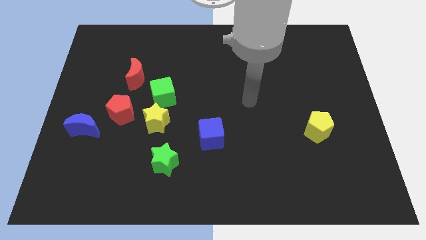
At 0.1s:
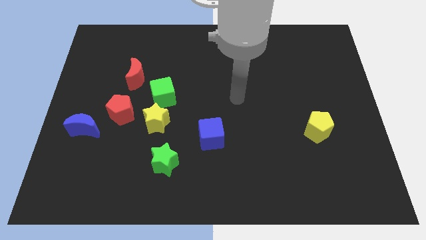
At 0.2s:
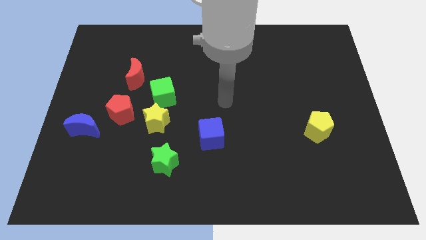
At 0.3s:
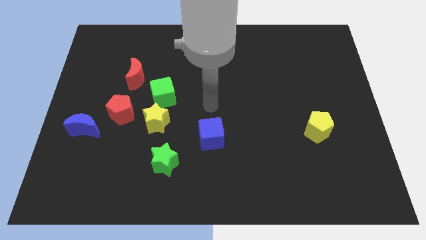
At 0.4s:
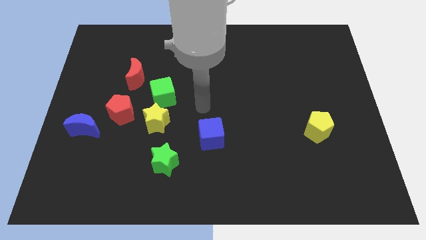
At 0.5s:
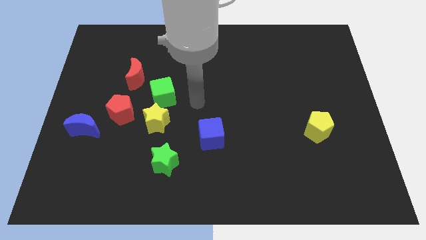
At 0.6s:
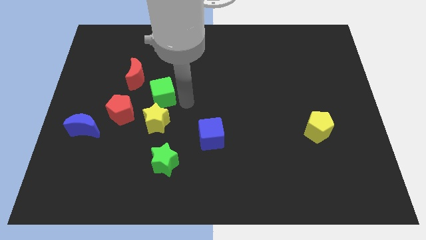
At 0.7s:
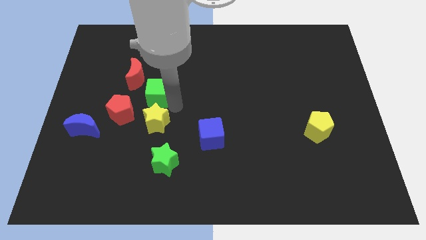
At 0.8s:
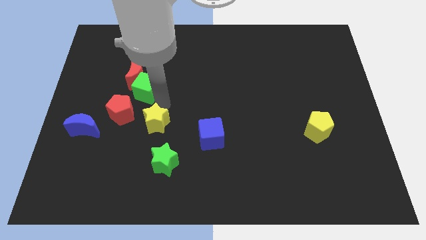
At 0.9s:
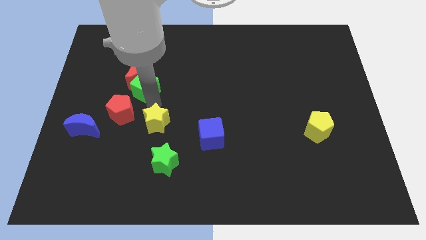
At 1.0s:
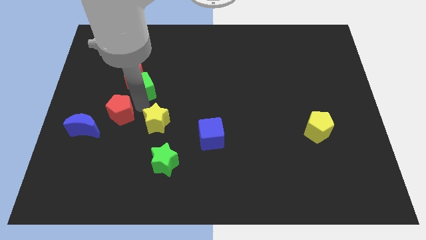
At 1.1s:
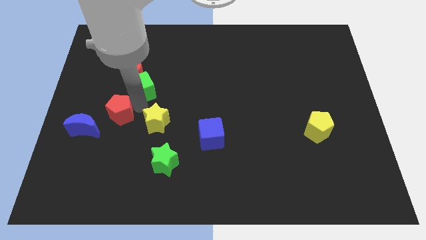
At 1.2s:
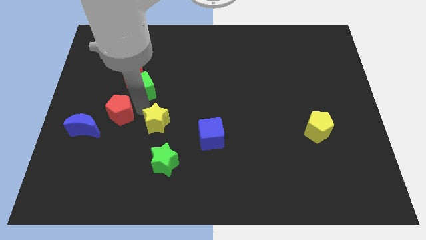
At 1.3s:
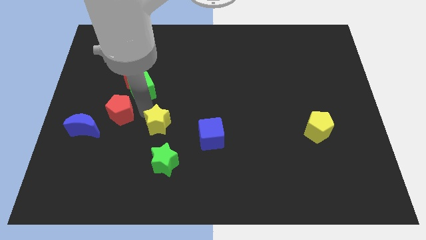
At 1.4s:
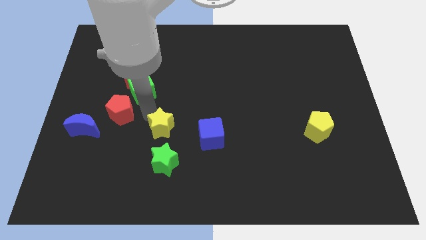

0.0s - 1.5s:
separate the yellow star from the green cube and red pentagon

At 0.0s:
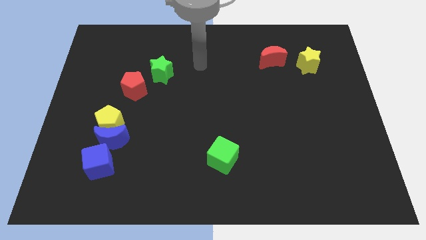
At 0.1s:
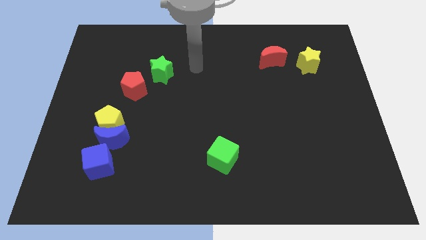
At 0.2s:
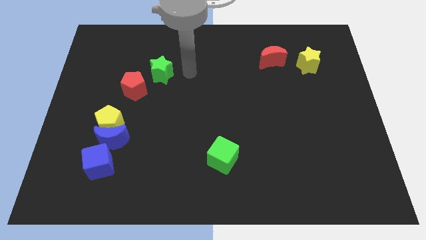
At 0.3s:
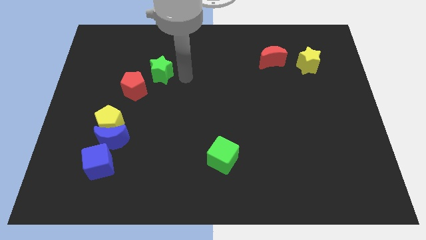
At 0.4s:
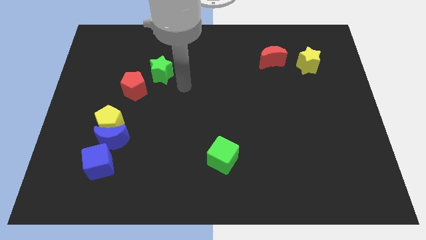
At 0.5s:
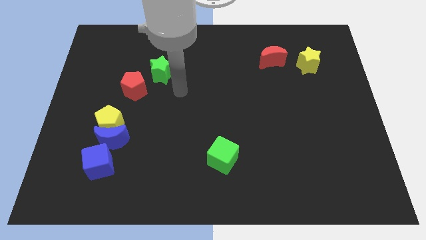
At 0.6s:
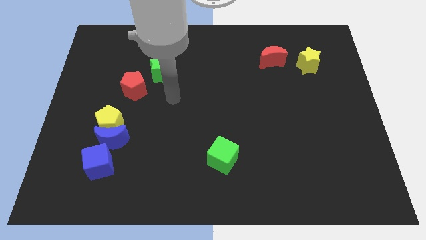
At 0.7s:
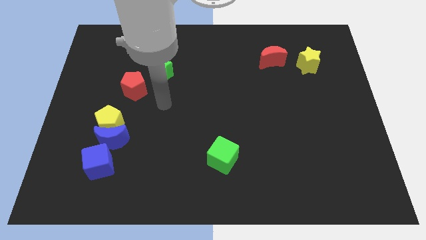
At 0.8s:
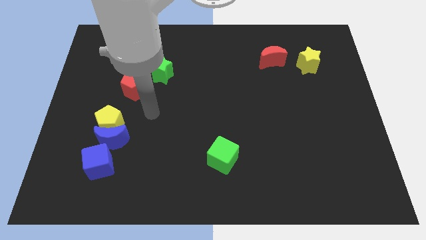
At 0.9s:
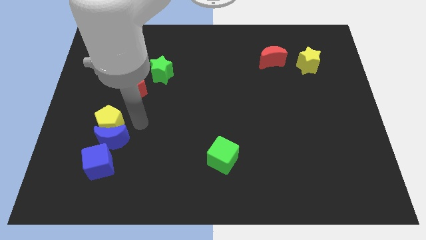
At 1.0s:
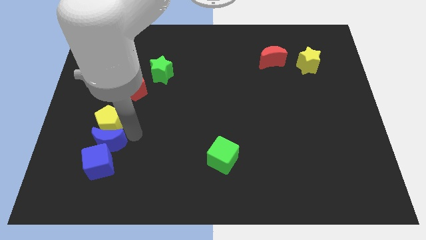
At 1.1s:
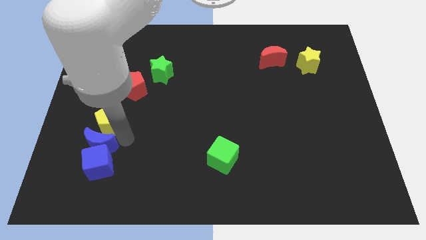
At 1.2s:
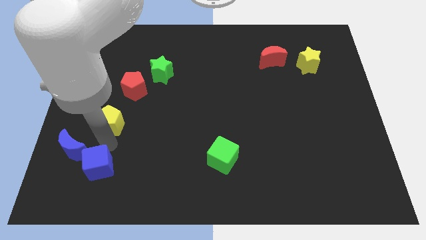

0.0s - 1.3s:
separate the yellow pentagon from the blue moon

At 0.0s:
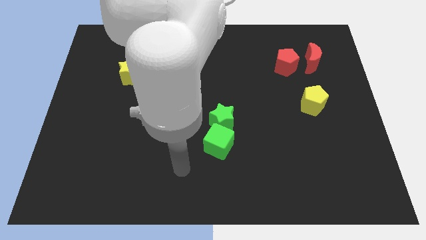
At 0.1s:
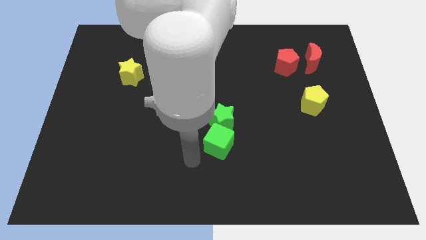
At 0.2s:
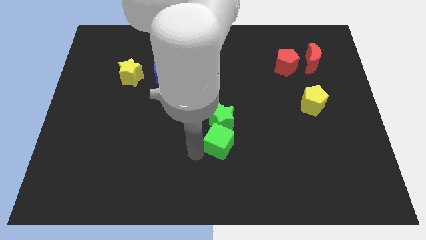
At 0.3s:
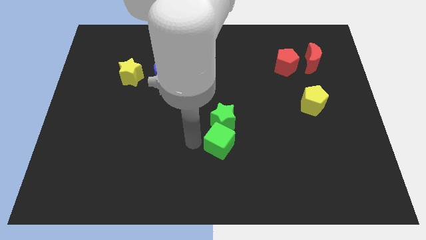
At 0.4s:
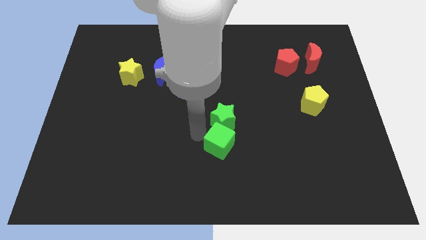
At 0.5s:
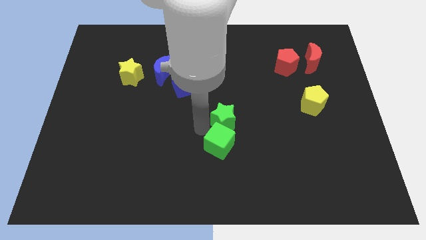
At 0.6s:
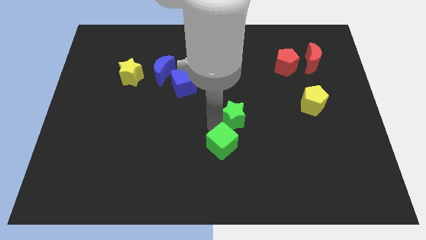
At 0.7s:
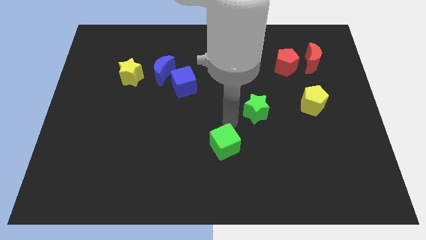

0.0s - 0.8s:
move the green cube away from the green star

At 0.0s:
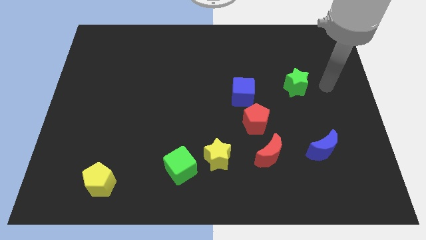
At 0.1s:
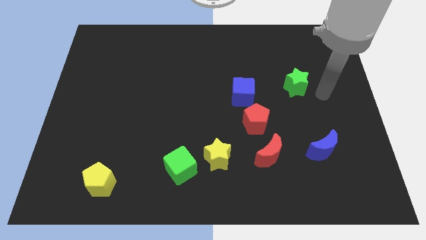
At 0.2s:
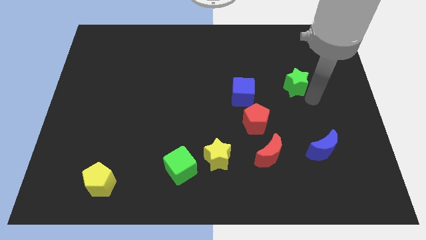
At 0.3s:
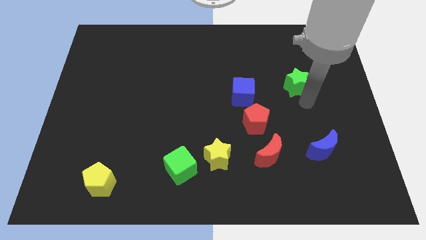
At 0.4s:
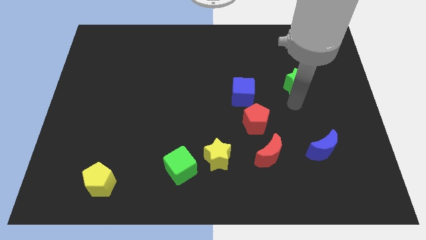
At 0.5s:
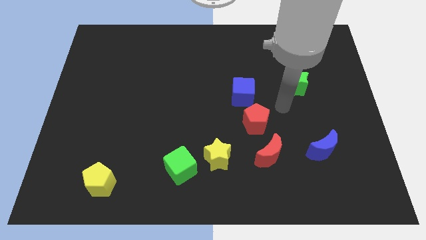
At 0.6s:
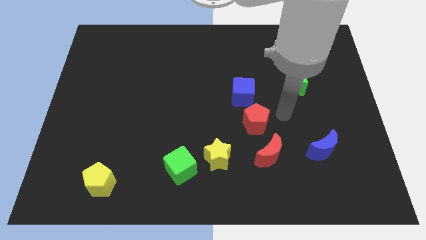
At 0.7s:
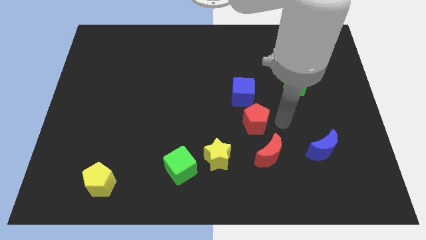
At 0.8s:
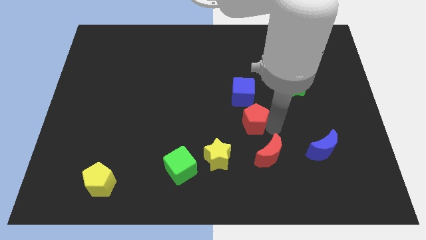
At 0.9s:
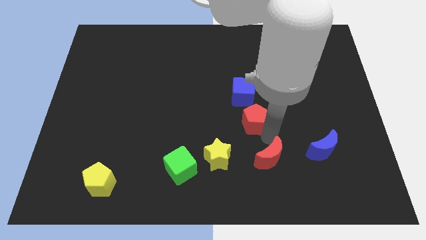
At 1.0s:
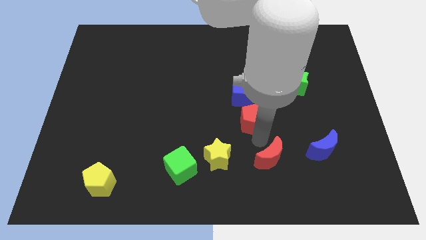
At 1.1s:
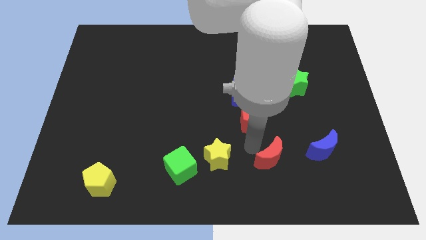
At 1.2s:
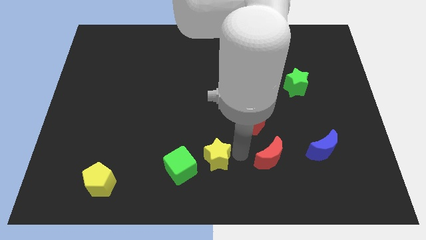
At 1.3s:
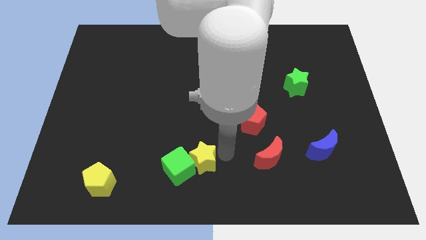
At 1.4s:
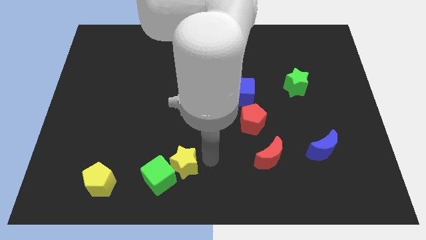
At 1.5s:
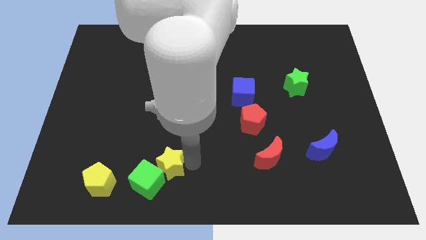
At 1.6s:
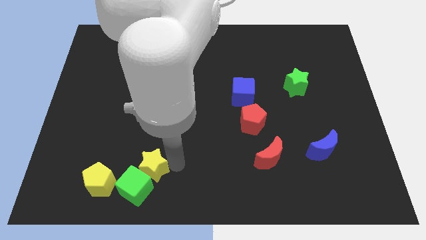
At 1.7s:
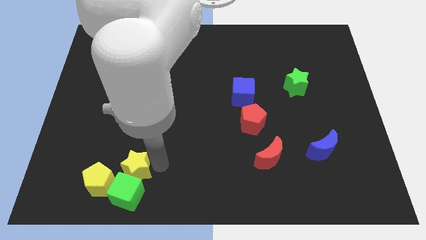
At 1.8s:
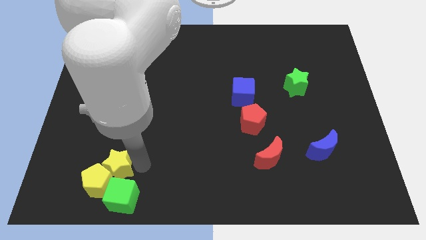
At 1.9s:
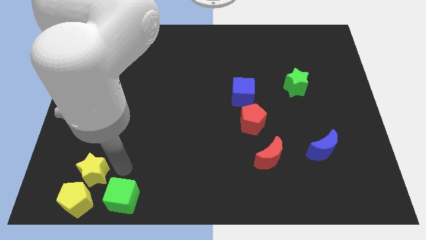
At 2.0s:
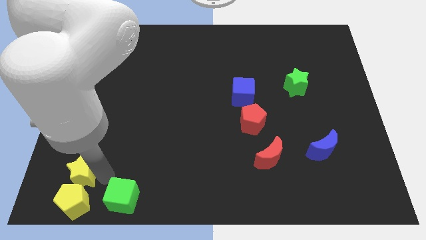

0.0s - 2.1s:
pull the green cube apart from the yellow star

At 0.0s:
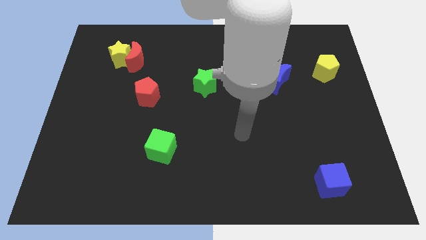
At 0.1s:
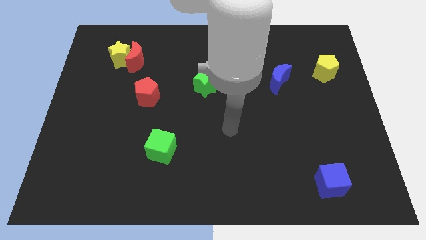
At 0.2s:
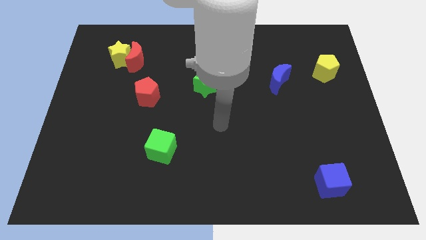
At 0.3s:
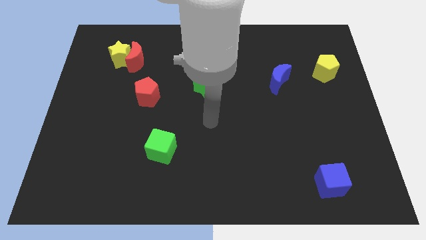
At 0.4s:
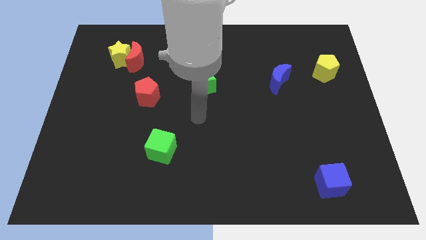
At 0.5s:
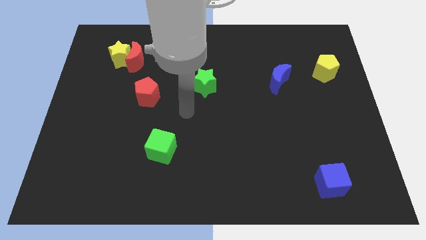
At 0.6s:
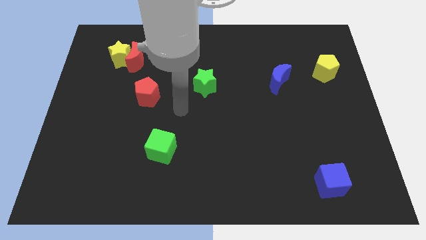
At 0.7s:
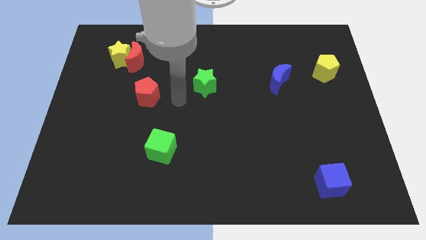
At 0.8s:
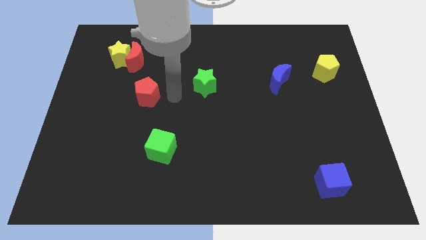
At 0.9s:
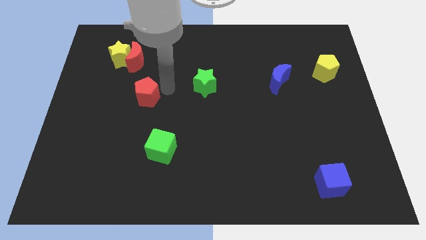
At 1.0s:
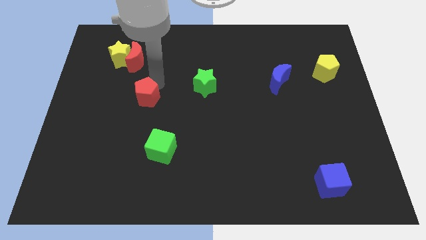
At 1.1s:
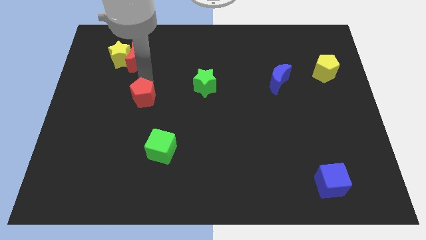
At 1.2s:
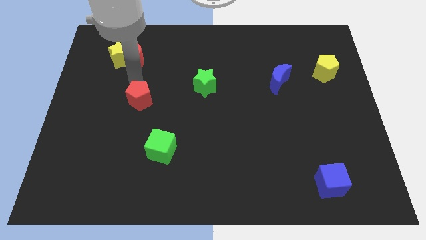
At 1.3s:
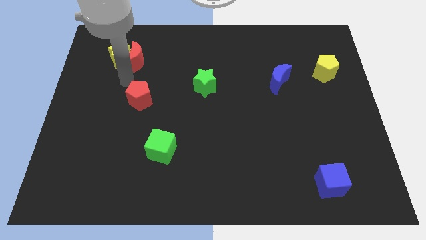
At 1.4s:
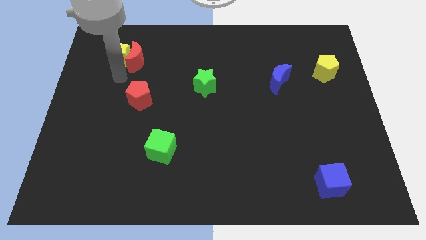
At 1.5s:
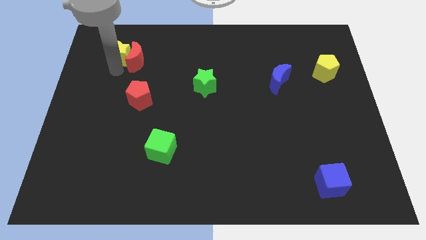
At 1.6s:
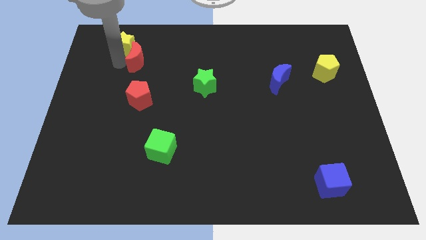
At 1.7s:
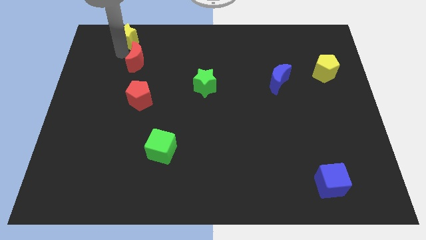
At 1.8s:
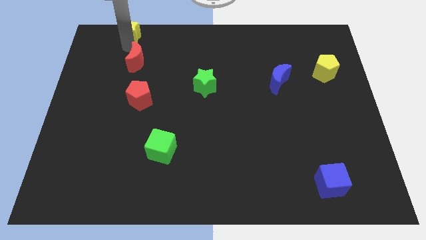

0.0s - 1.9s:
pull the red moon apart from the yellow star

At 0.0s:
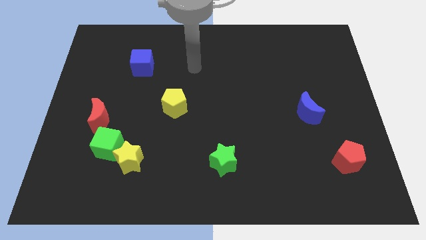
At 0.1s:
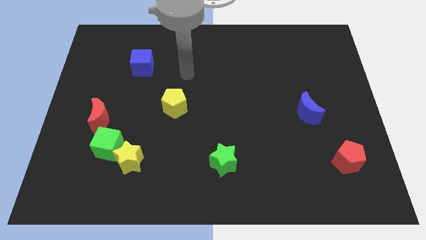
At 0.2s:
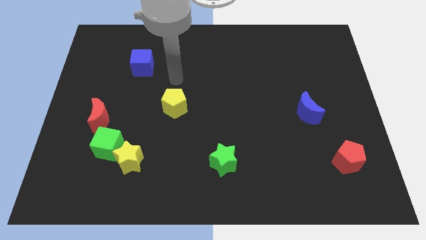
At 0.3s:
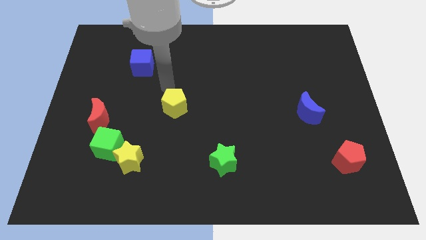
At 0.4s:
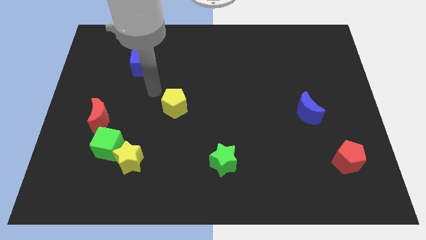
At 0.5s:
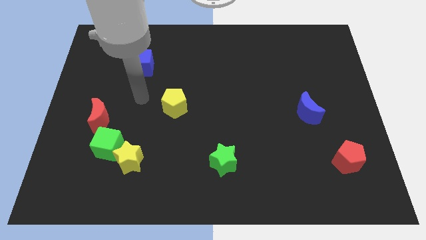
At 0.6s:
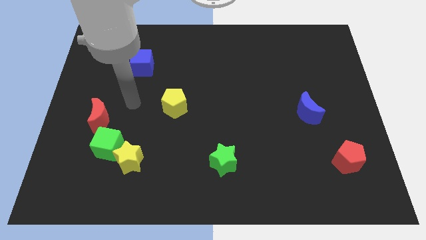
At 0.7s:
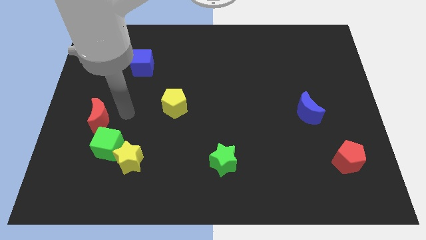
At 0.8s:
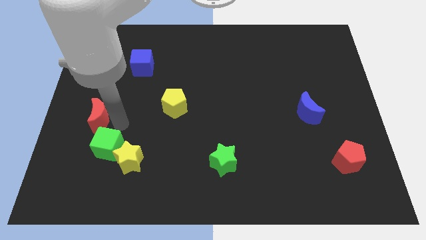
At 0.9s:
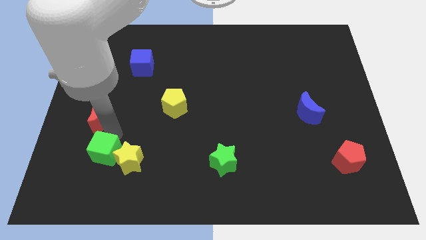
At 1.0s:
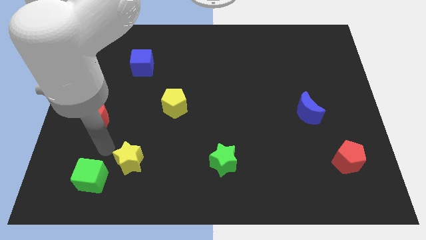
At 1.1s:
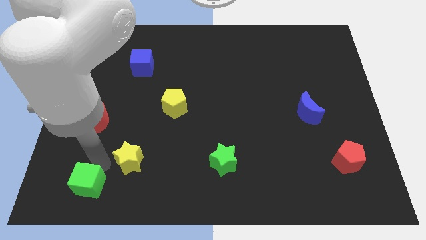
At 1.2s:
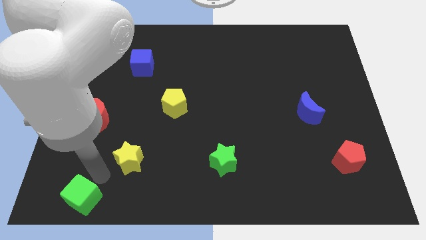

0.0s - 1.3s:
pull the yellow star apart from the green cube

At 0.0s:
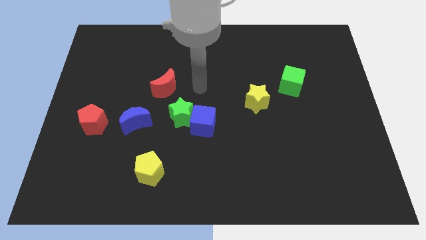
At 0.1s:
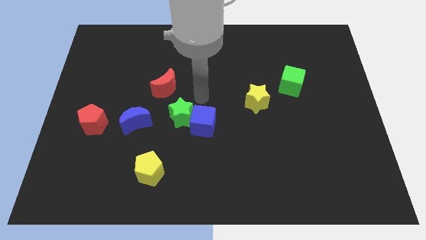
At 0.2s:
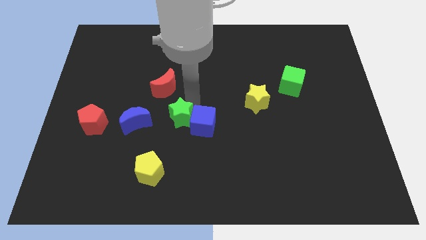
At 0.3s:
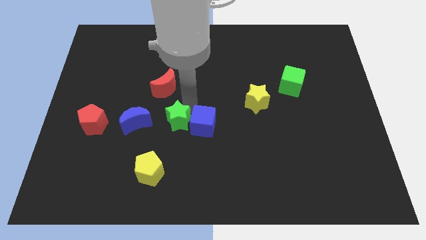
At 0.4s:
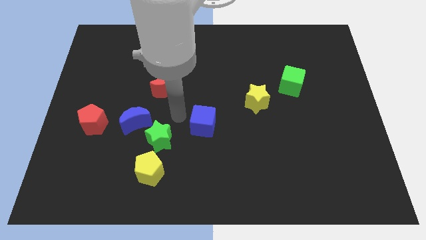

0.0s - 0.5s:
move the blue cube away from the green star
